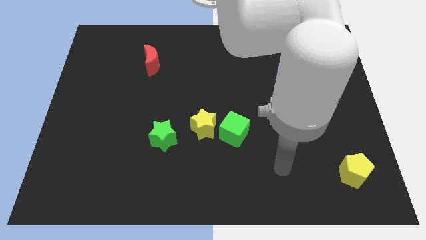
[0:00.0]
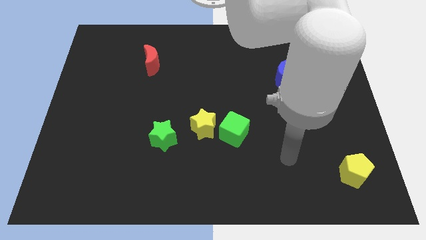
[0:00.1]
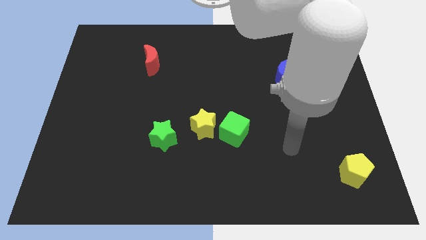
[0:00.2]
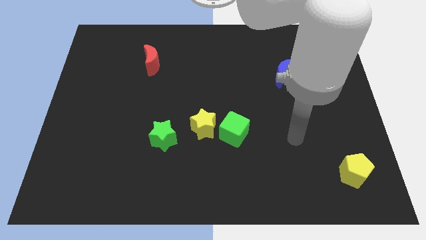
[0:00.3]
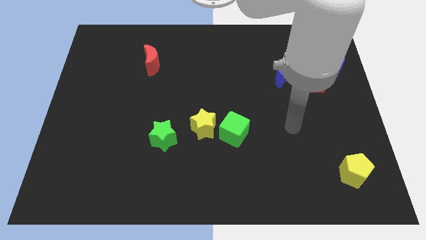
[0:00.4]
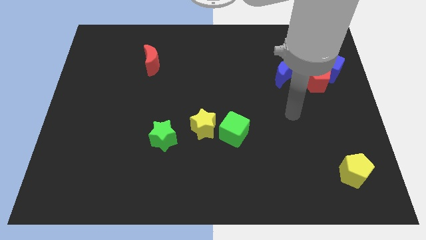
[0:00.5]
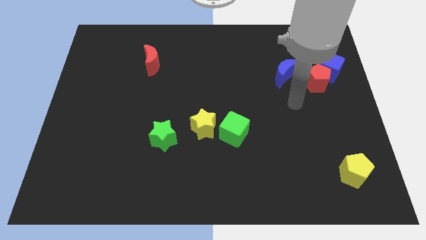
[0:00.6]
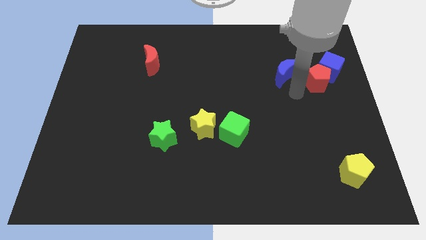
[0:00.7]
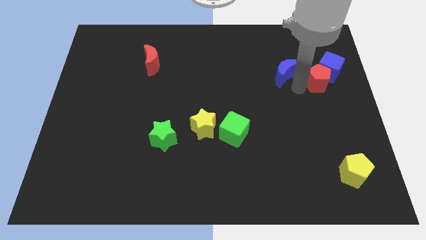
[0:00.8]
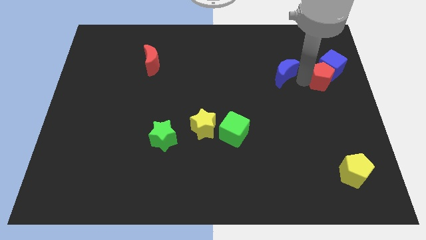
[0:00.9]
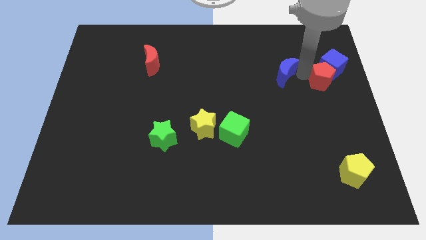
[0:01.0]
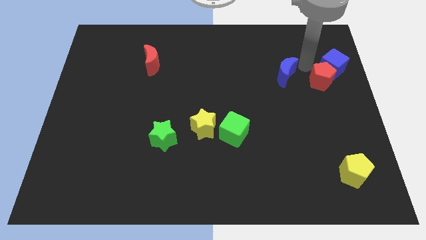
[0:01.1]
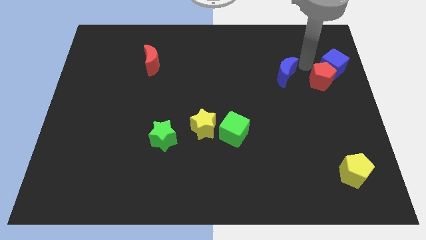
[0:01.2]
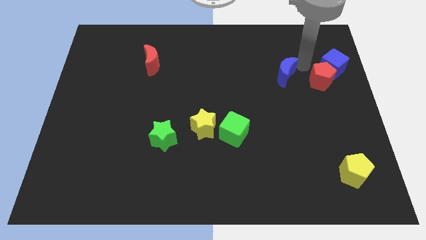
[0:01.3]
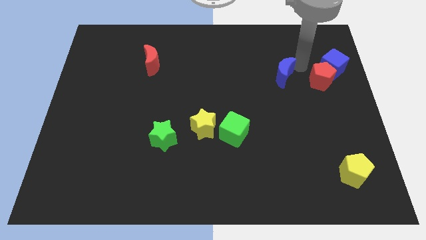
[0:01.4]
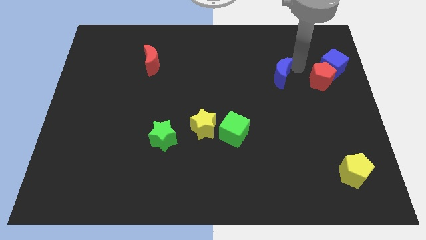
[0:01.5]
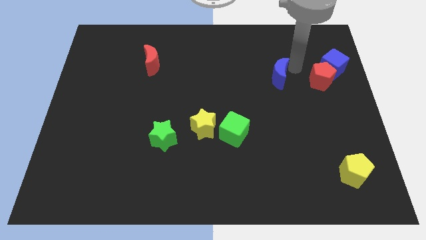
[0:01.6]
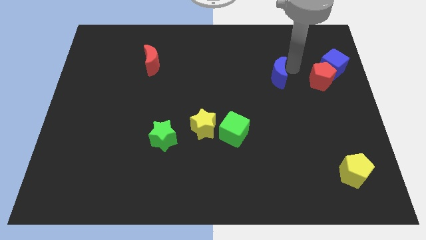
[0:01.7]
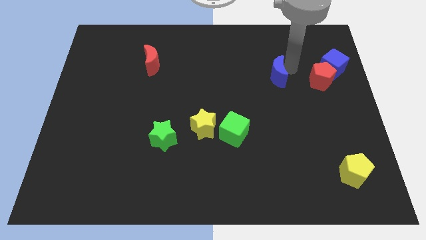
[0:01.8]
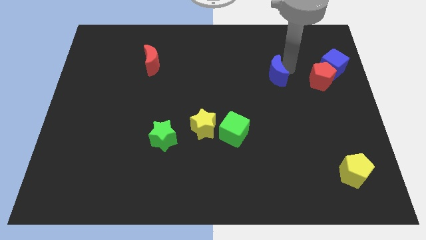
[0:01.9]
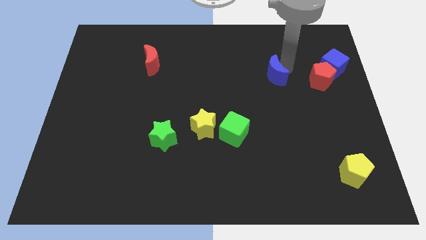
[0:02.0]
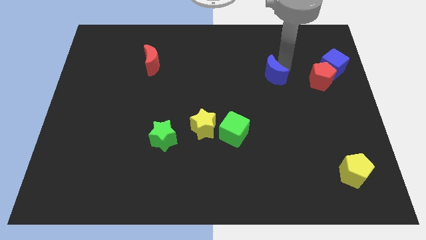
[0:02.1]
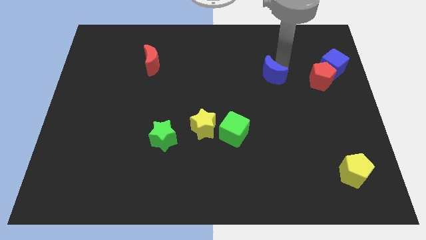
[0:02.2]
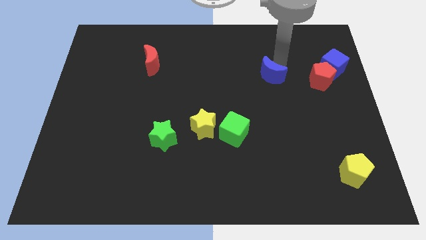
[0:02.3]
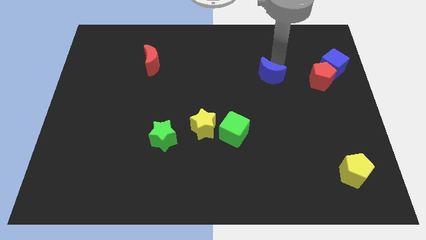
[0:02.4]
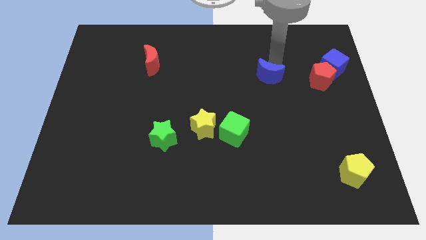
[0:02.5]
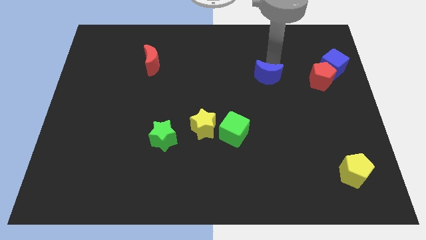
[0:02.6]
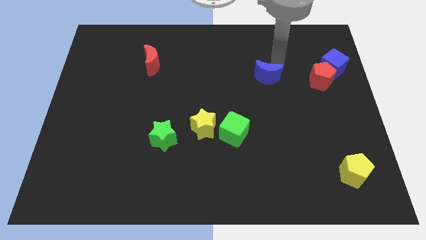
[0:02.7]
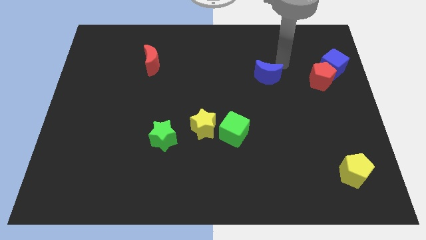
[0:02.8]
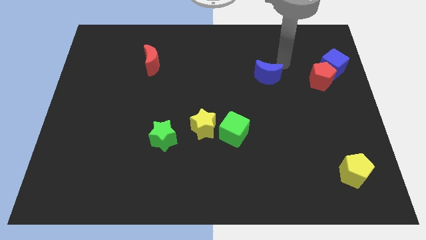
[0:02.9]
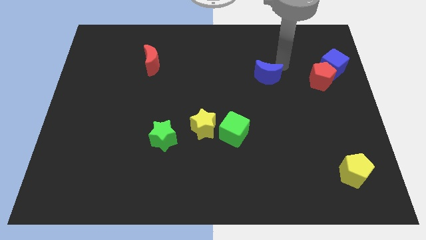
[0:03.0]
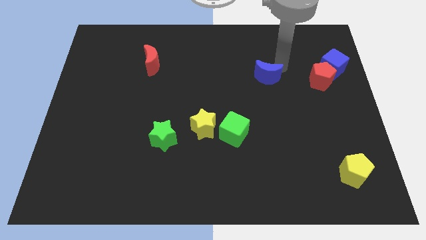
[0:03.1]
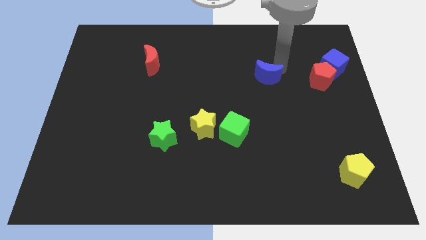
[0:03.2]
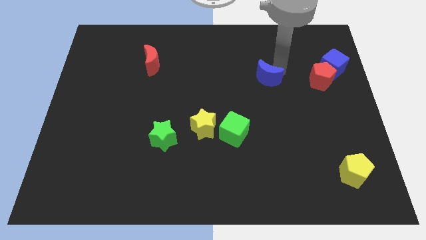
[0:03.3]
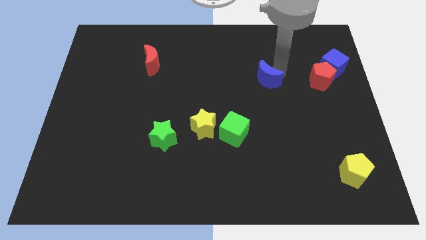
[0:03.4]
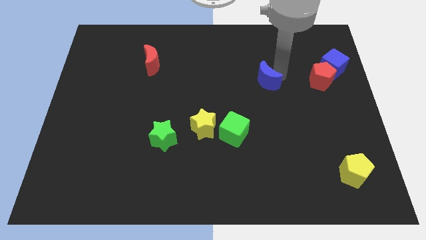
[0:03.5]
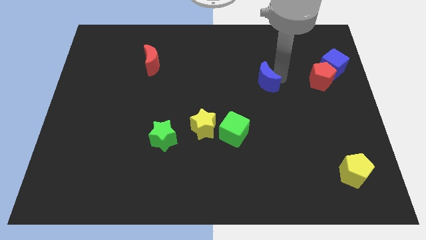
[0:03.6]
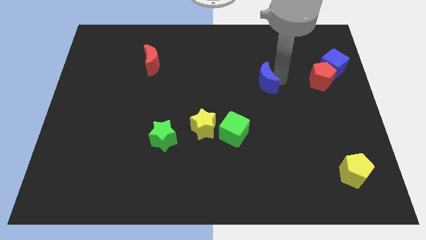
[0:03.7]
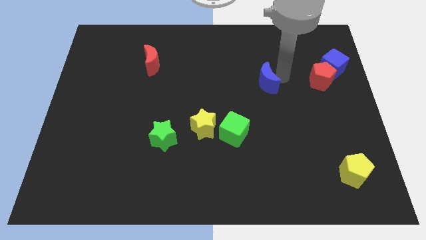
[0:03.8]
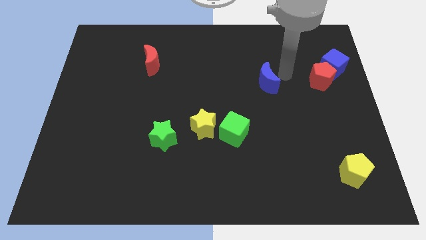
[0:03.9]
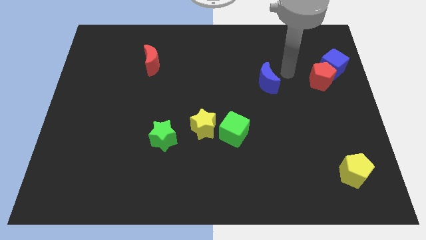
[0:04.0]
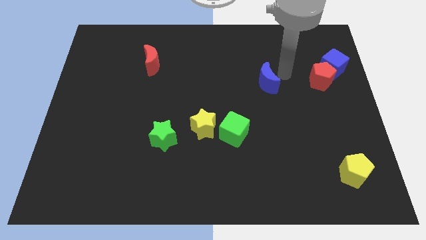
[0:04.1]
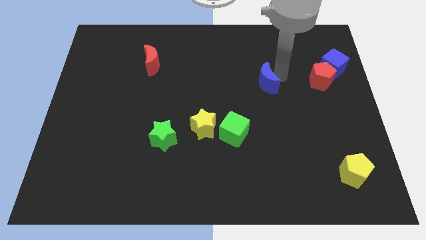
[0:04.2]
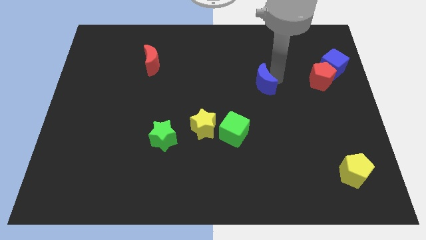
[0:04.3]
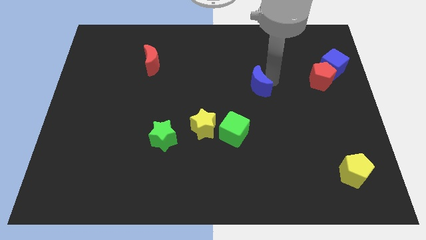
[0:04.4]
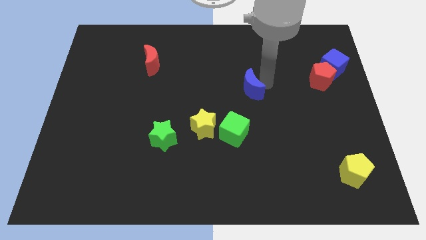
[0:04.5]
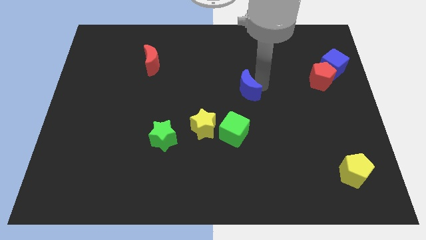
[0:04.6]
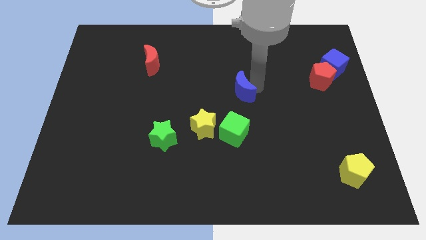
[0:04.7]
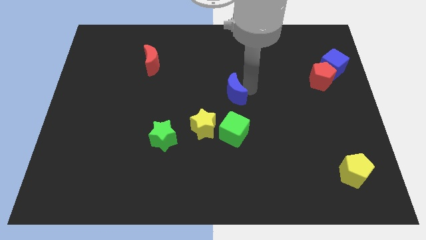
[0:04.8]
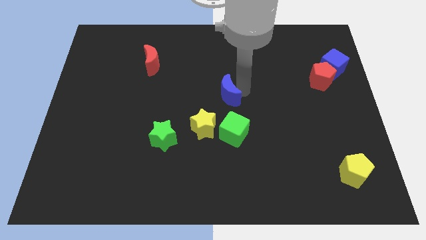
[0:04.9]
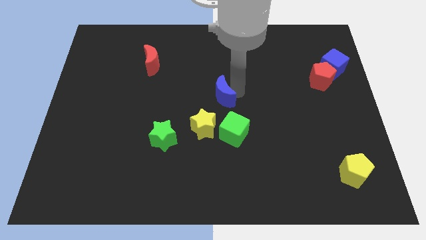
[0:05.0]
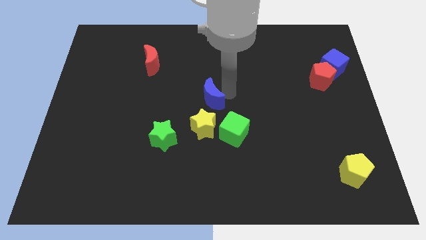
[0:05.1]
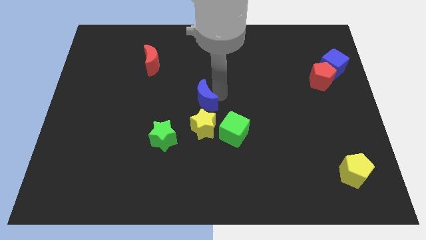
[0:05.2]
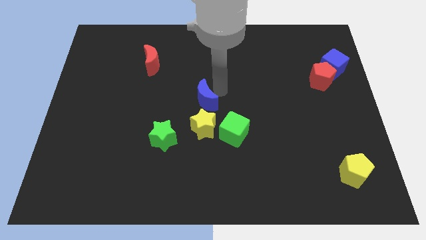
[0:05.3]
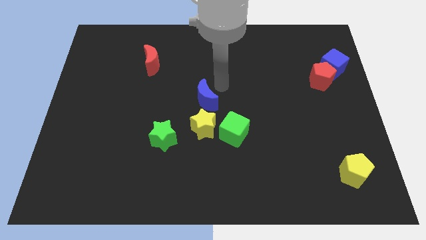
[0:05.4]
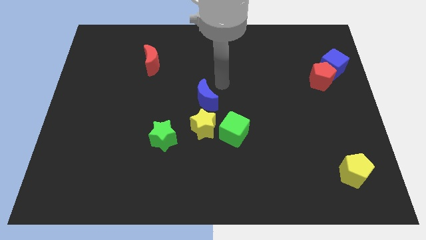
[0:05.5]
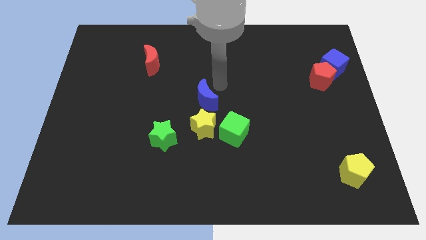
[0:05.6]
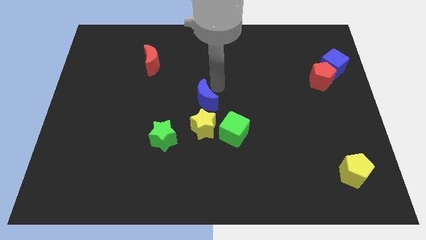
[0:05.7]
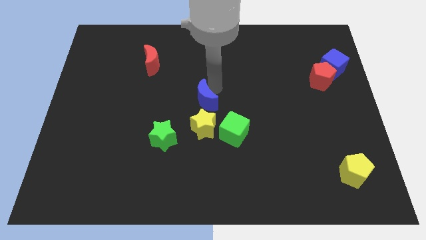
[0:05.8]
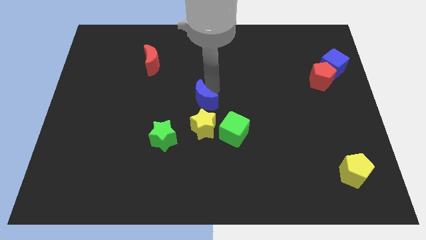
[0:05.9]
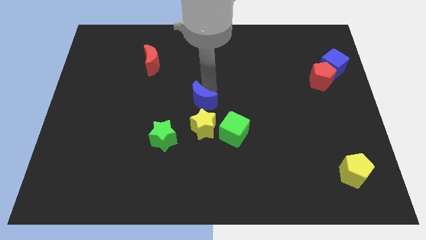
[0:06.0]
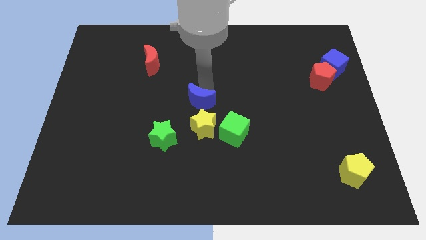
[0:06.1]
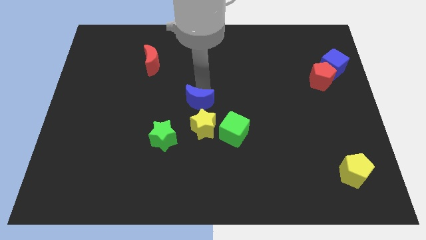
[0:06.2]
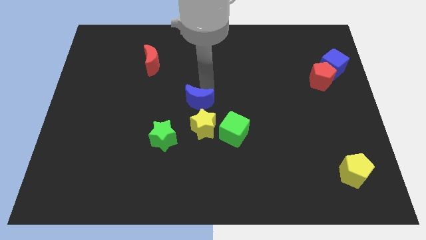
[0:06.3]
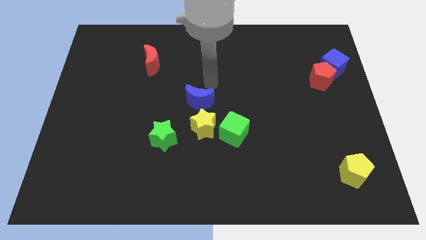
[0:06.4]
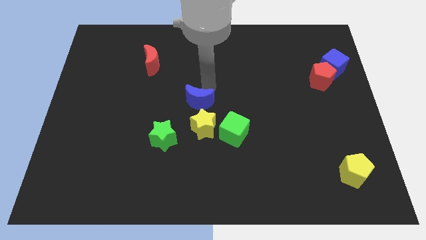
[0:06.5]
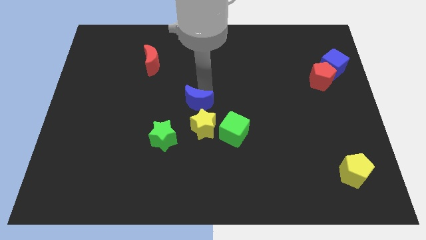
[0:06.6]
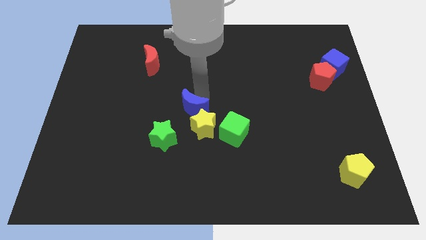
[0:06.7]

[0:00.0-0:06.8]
move the blue moon downwards and left diagonally

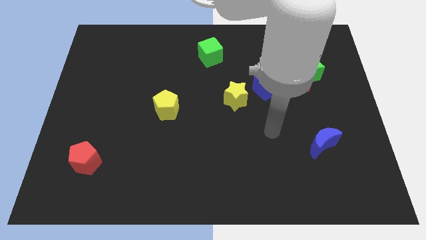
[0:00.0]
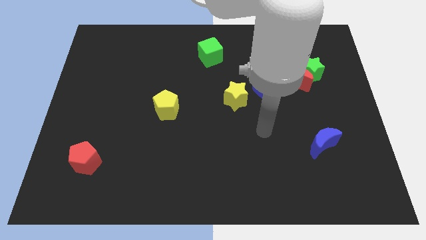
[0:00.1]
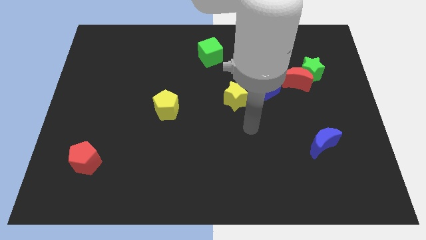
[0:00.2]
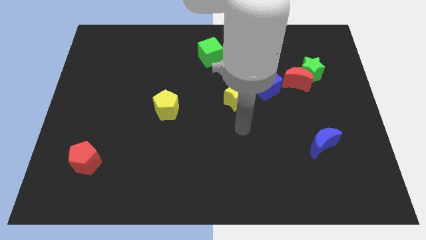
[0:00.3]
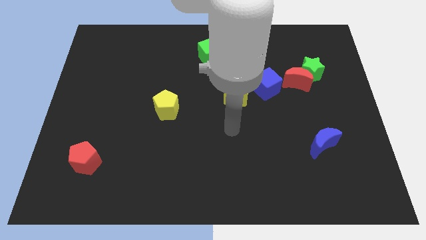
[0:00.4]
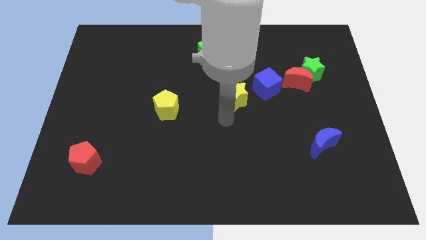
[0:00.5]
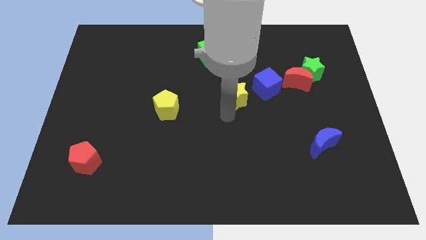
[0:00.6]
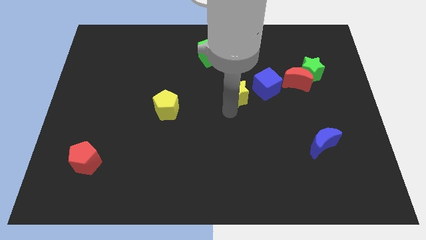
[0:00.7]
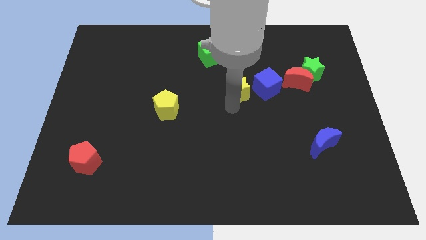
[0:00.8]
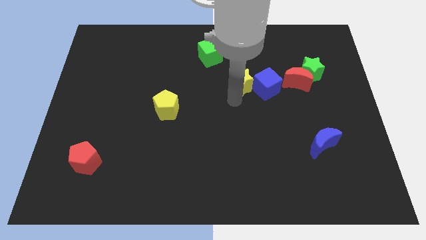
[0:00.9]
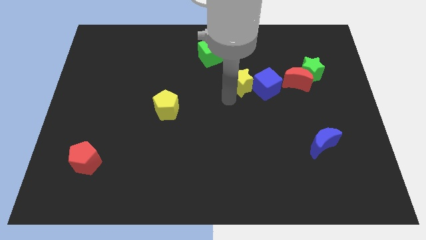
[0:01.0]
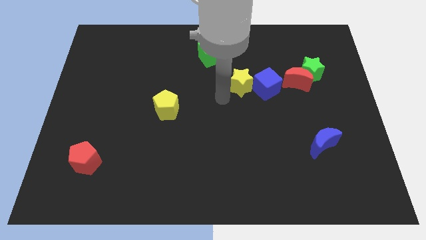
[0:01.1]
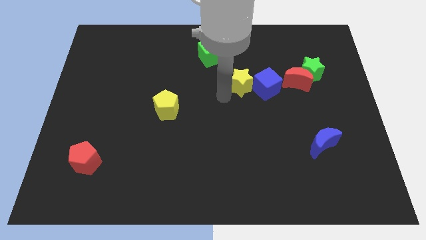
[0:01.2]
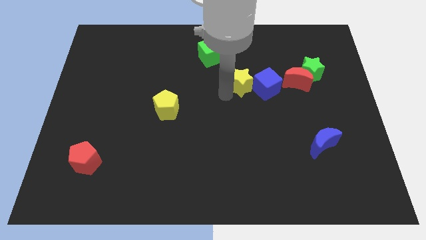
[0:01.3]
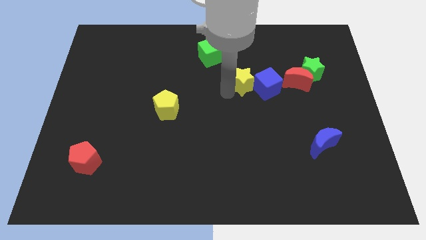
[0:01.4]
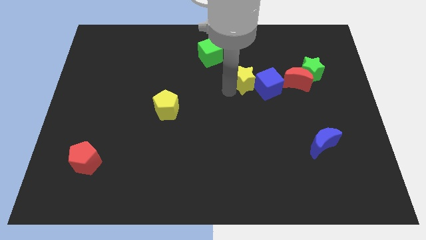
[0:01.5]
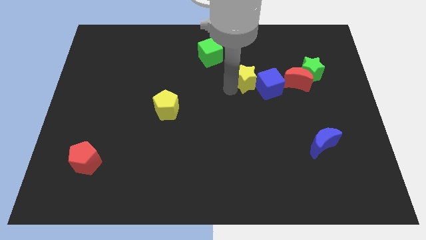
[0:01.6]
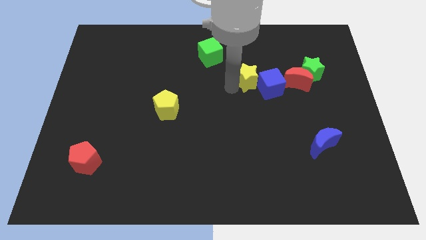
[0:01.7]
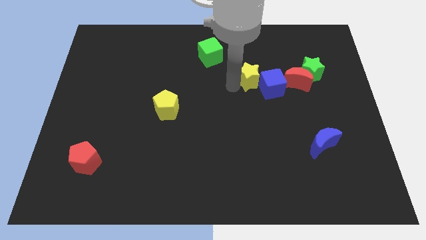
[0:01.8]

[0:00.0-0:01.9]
slide the yellow star a little bit up and then to the right
